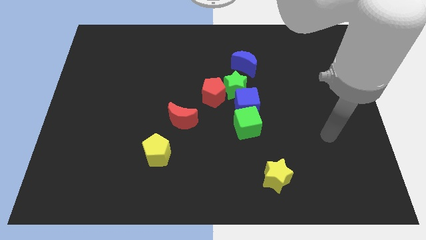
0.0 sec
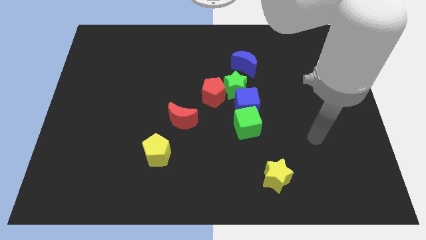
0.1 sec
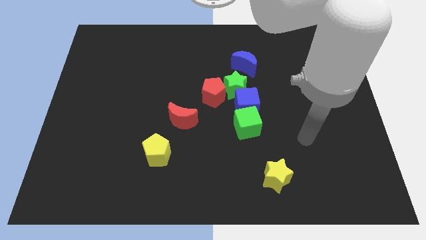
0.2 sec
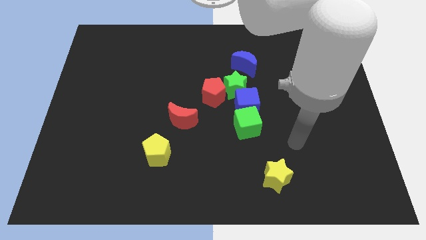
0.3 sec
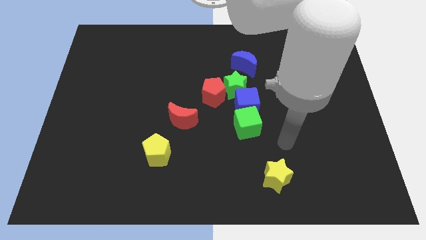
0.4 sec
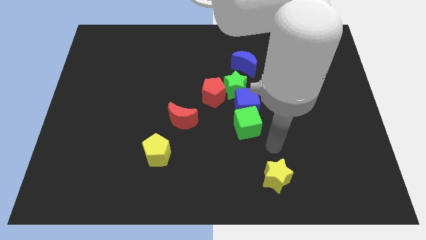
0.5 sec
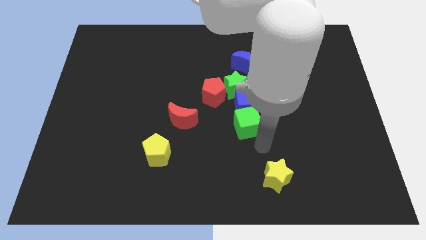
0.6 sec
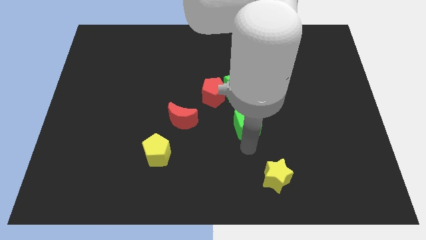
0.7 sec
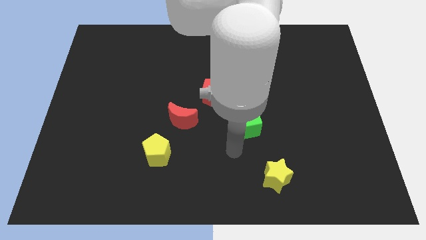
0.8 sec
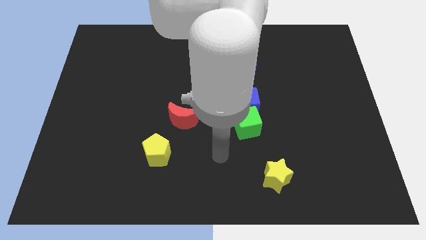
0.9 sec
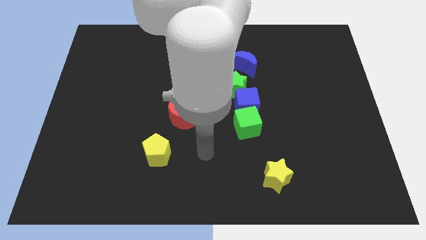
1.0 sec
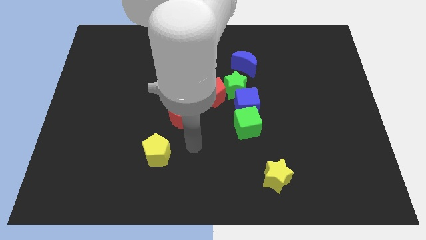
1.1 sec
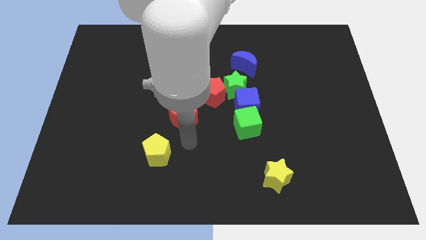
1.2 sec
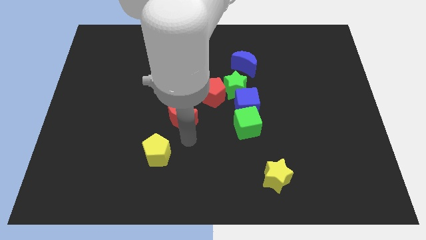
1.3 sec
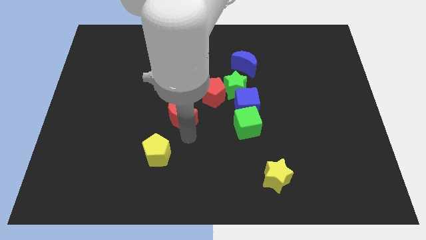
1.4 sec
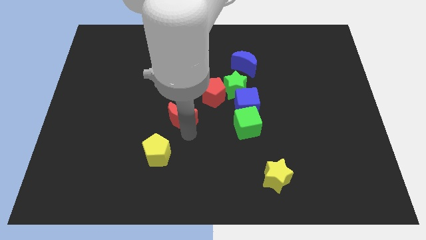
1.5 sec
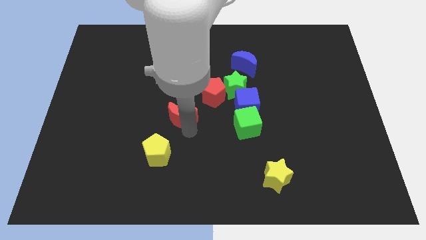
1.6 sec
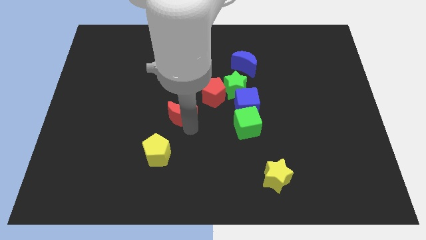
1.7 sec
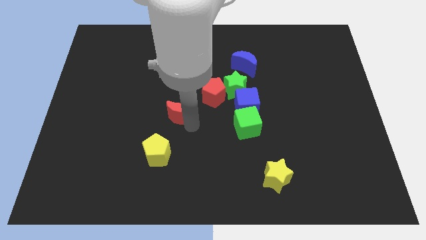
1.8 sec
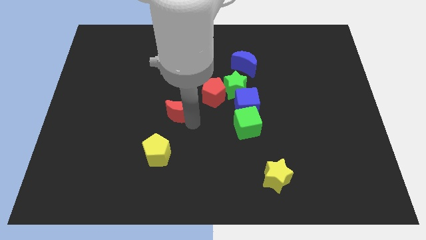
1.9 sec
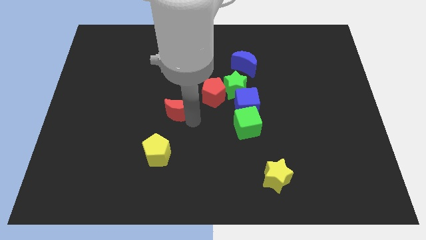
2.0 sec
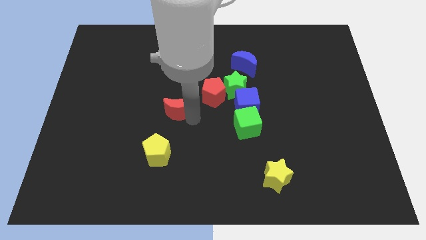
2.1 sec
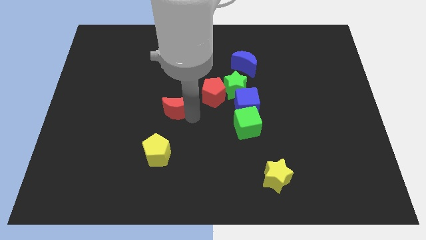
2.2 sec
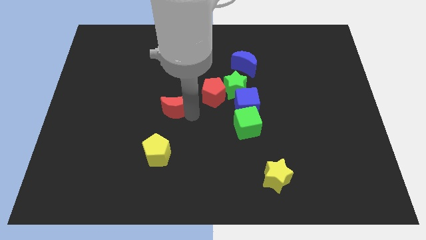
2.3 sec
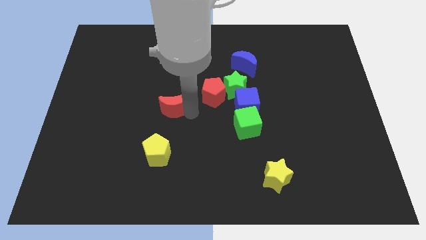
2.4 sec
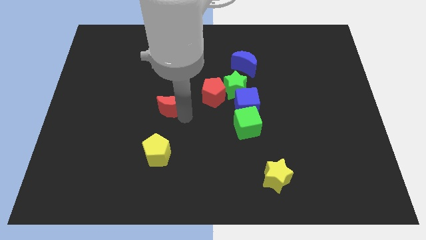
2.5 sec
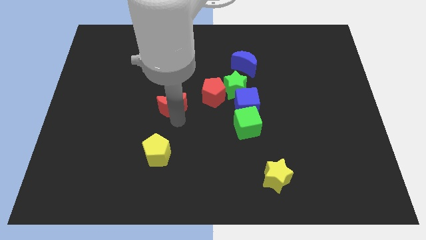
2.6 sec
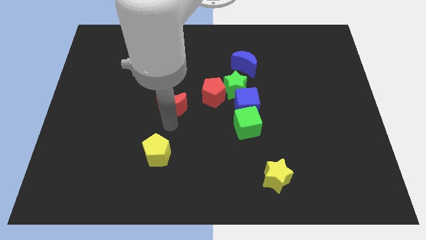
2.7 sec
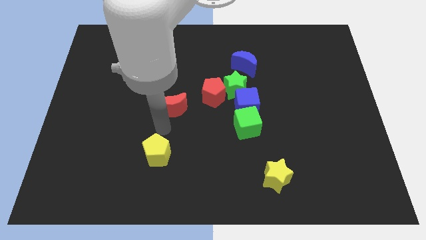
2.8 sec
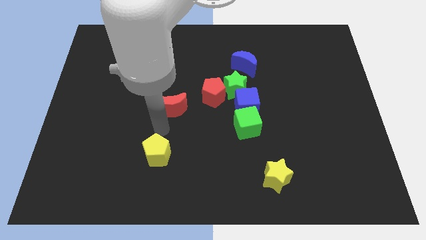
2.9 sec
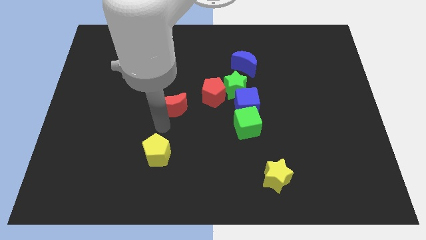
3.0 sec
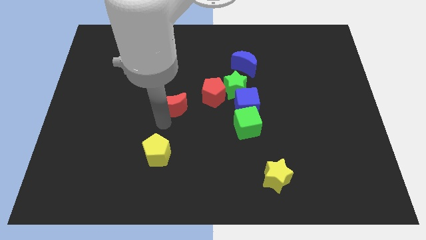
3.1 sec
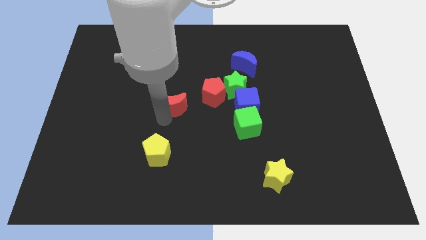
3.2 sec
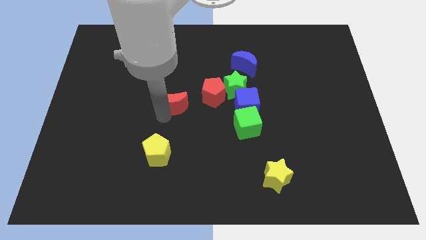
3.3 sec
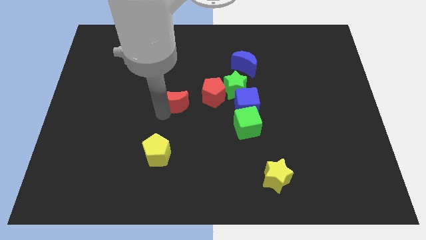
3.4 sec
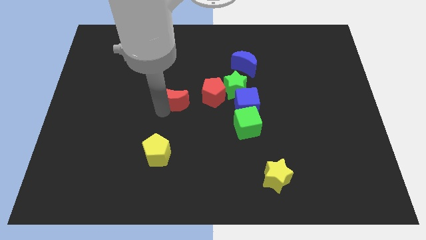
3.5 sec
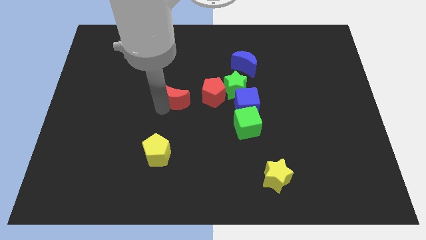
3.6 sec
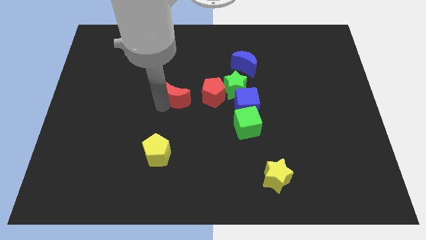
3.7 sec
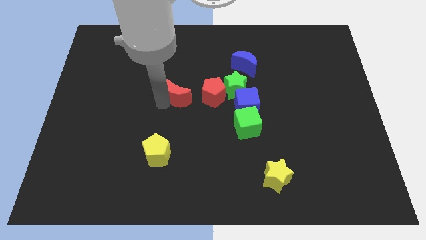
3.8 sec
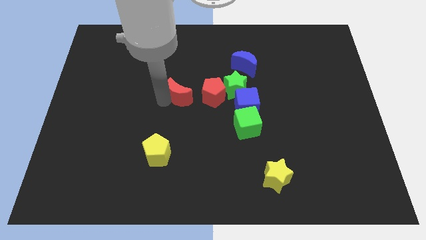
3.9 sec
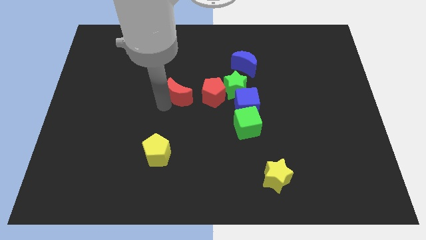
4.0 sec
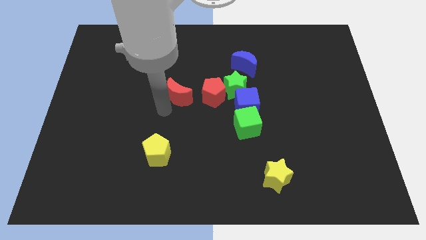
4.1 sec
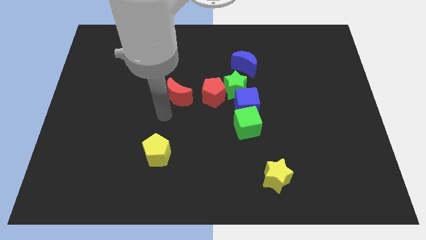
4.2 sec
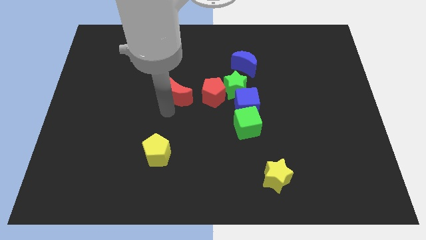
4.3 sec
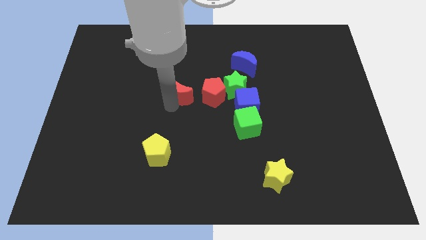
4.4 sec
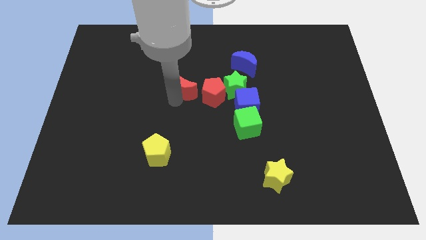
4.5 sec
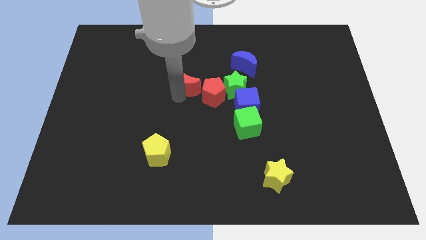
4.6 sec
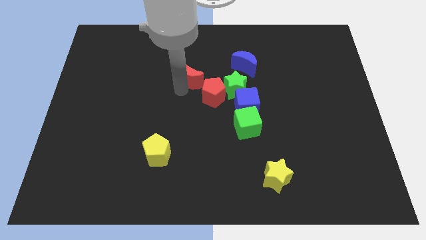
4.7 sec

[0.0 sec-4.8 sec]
push the red moon upwards and then to the right slightly

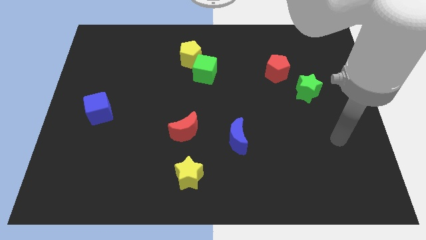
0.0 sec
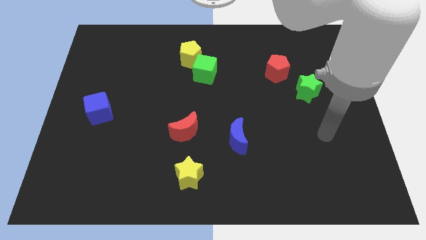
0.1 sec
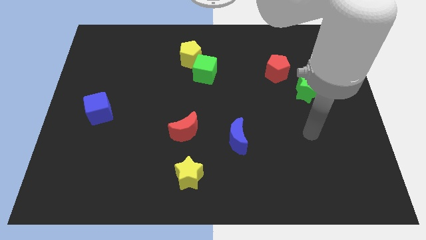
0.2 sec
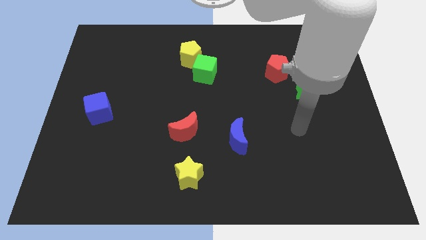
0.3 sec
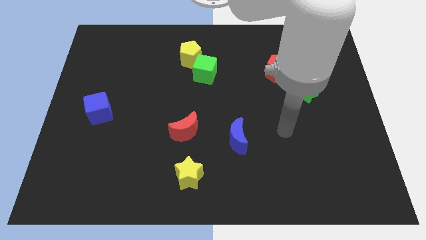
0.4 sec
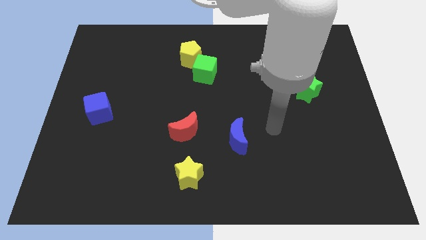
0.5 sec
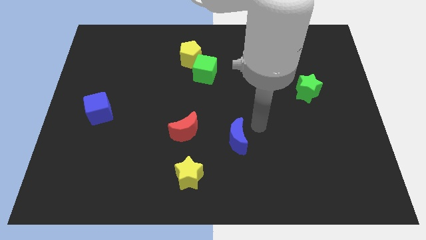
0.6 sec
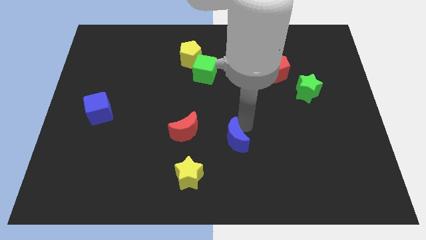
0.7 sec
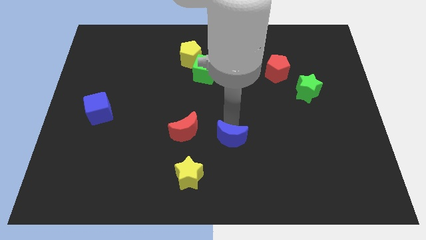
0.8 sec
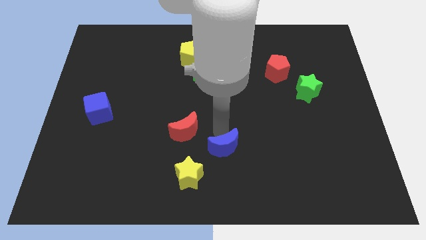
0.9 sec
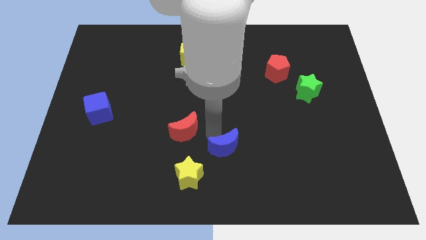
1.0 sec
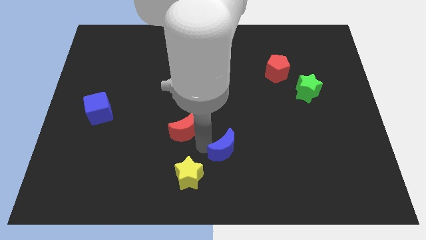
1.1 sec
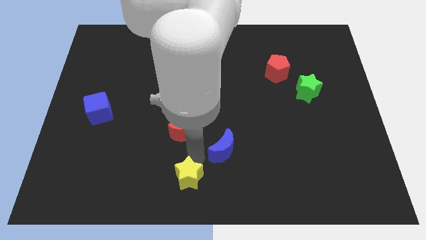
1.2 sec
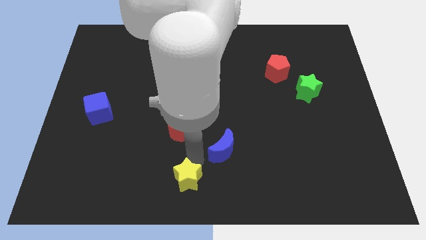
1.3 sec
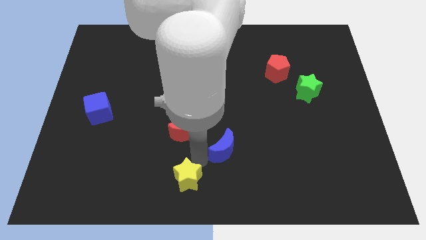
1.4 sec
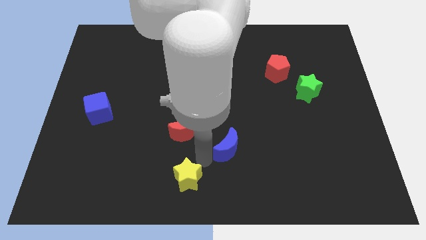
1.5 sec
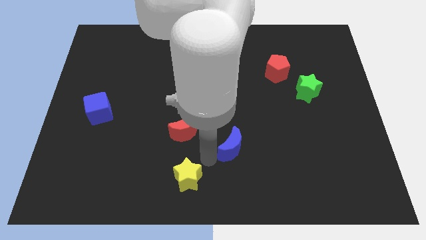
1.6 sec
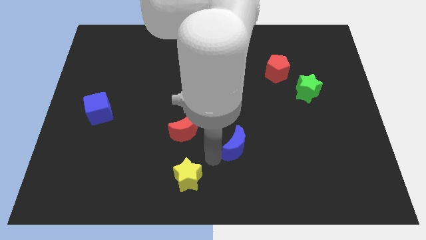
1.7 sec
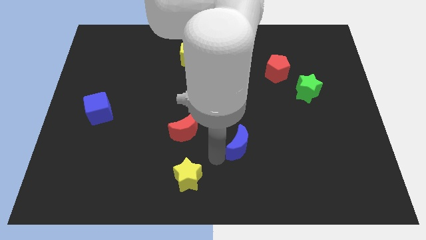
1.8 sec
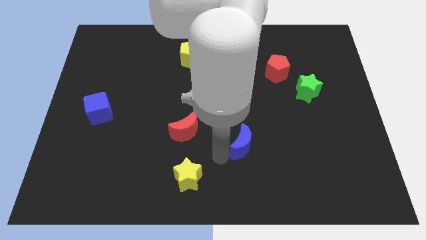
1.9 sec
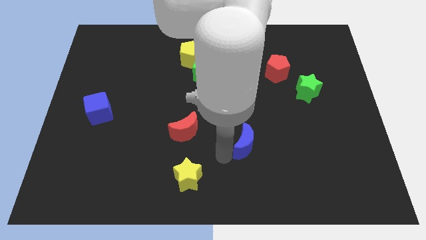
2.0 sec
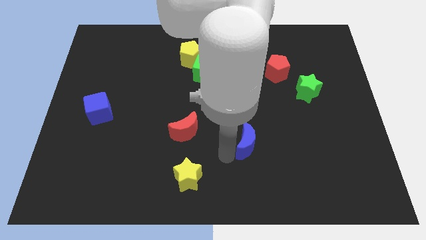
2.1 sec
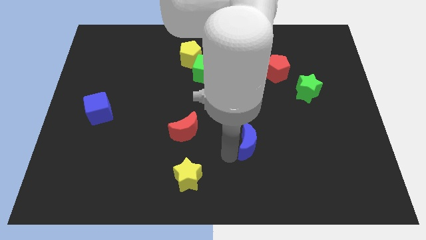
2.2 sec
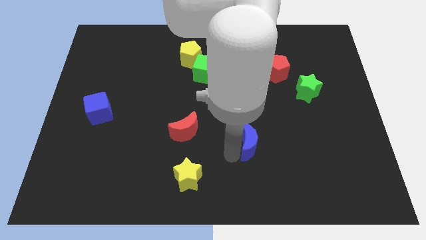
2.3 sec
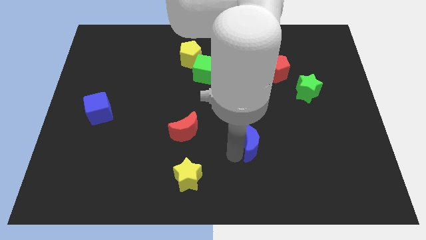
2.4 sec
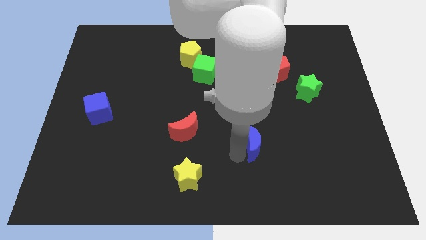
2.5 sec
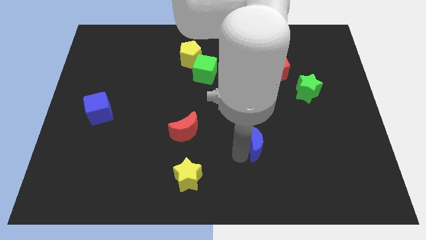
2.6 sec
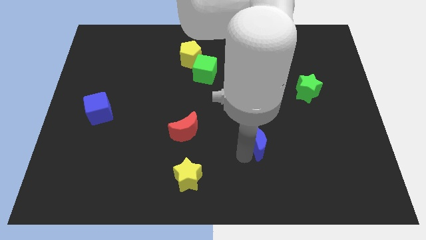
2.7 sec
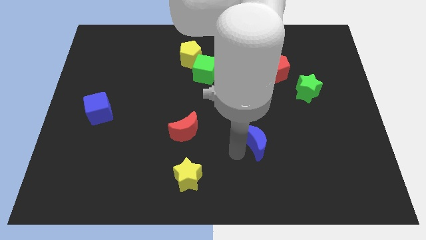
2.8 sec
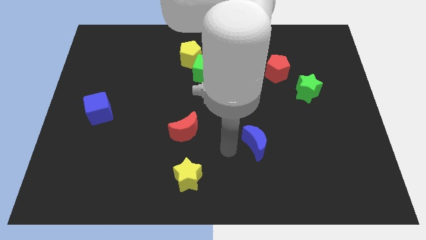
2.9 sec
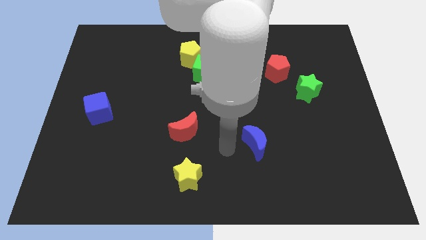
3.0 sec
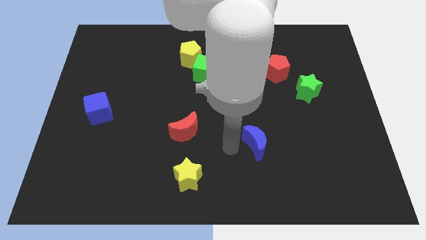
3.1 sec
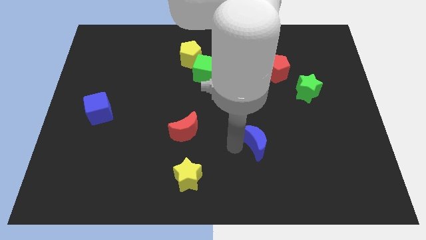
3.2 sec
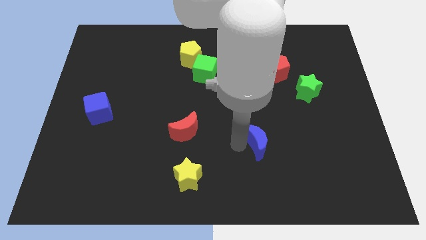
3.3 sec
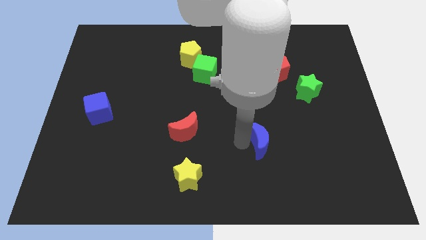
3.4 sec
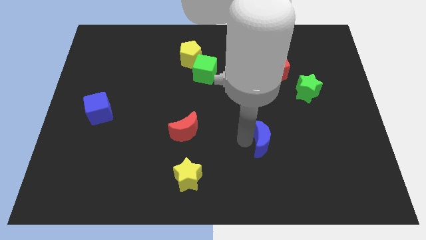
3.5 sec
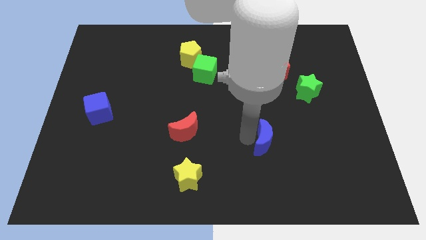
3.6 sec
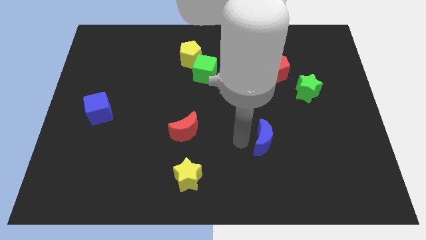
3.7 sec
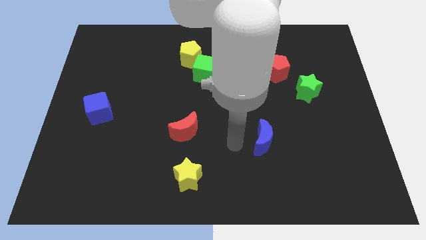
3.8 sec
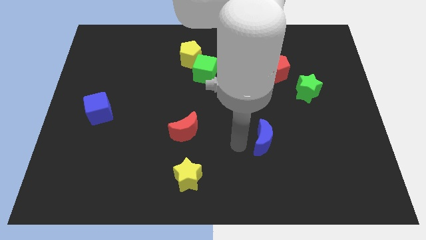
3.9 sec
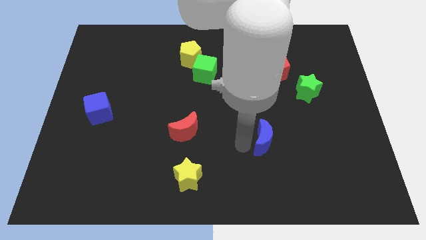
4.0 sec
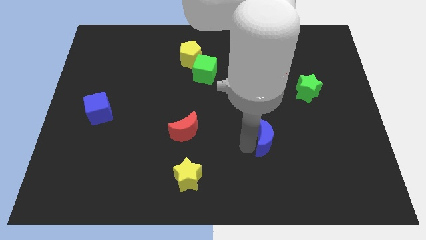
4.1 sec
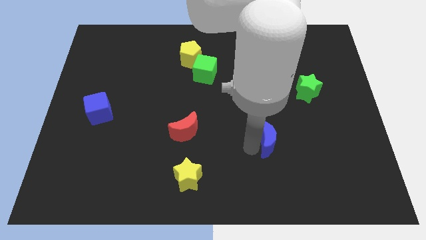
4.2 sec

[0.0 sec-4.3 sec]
move the blue moon right a little bit
